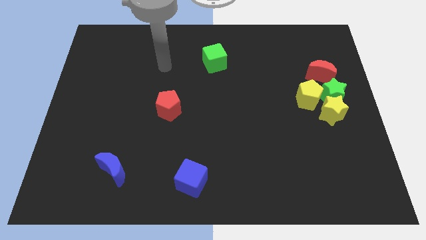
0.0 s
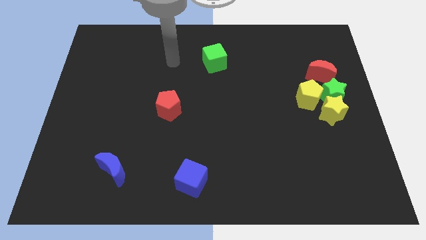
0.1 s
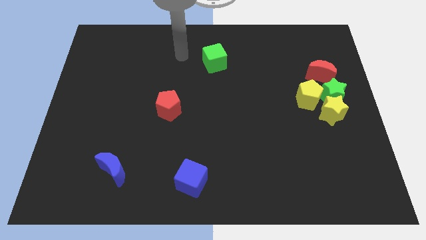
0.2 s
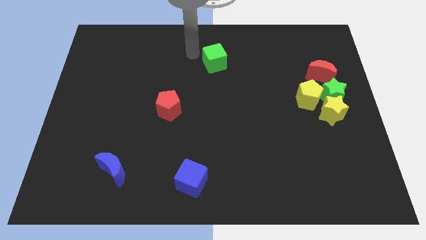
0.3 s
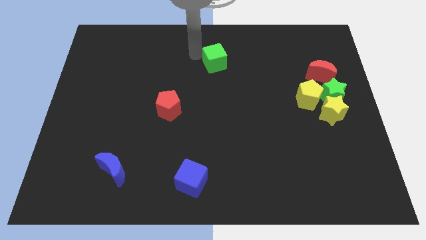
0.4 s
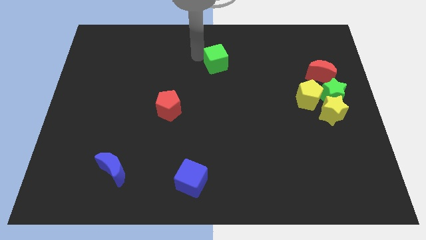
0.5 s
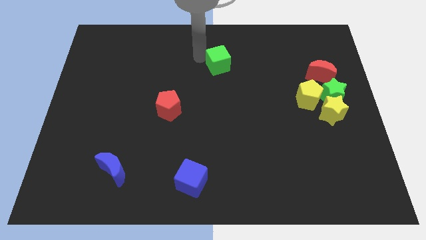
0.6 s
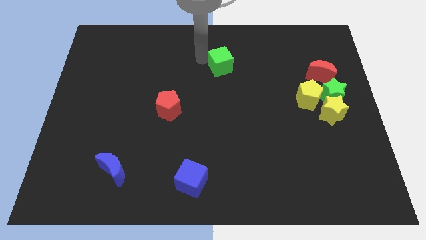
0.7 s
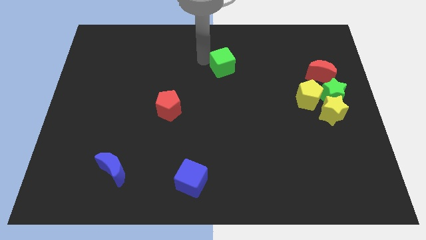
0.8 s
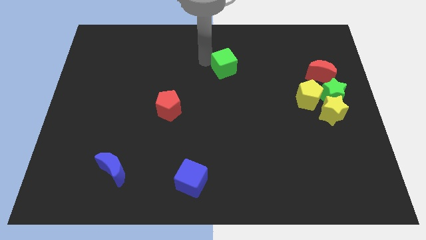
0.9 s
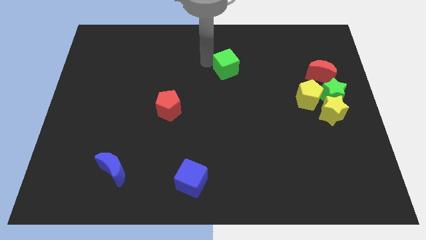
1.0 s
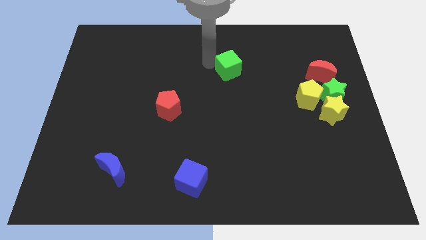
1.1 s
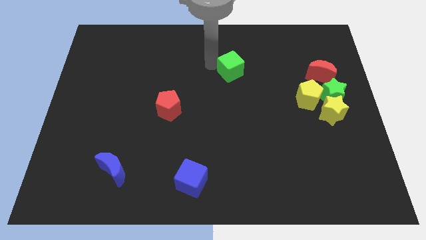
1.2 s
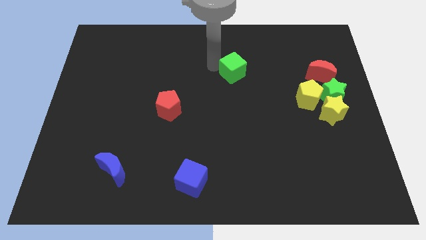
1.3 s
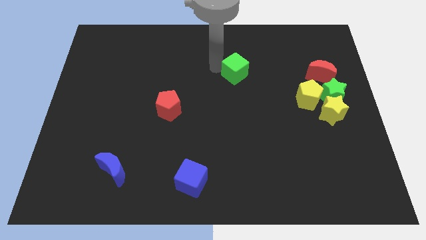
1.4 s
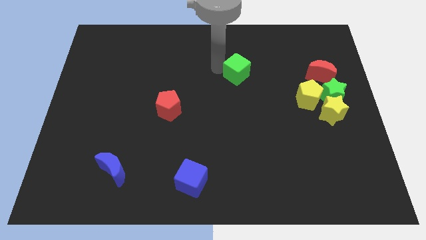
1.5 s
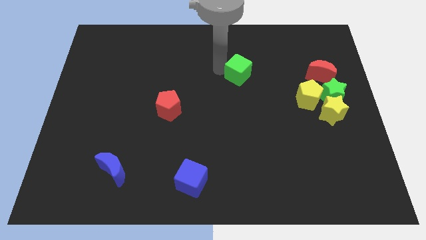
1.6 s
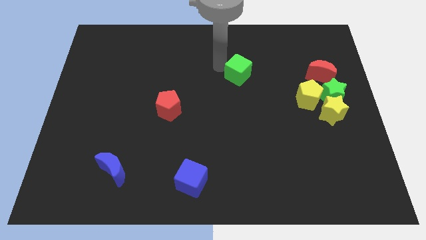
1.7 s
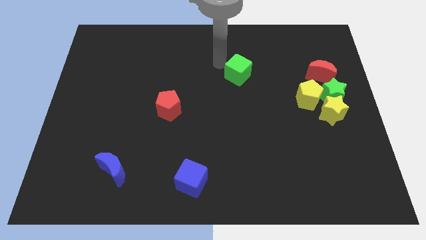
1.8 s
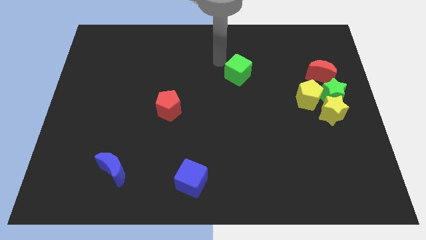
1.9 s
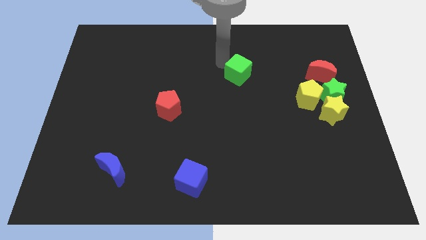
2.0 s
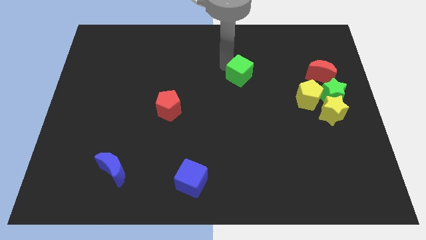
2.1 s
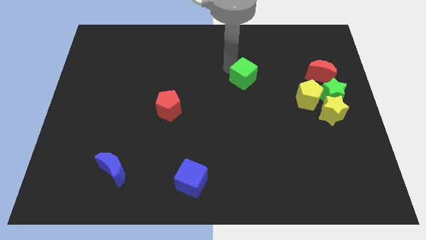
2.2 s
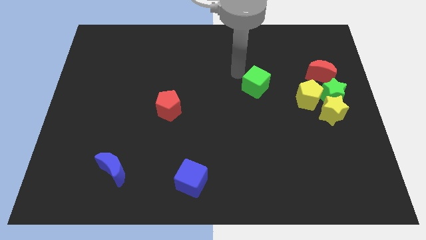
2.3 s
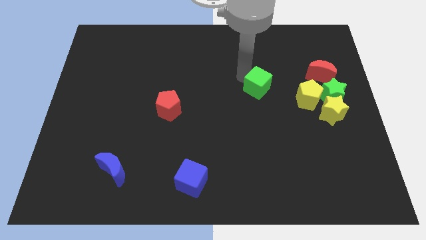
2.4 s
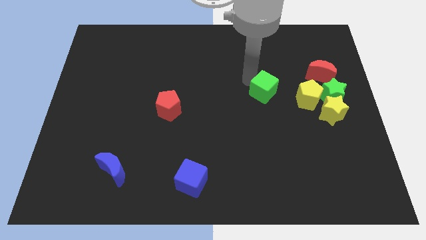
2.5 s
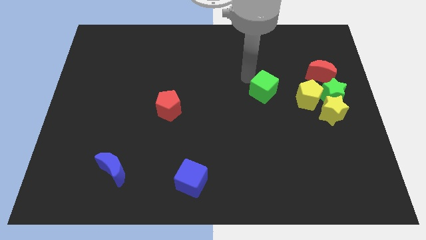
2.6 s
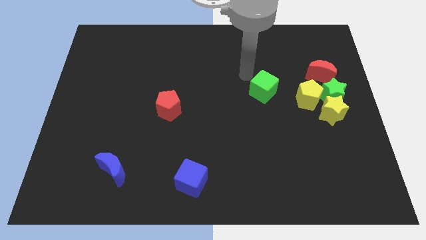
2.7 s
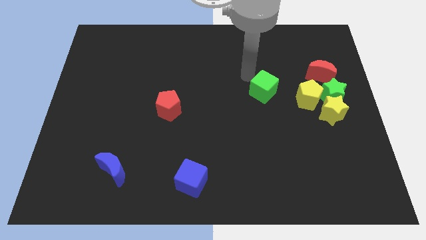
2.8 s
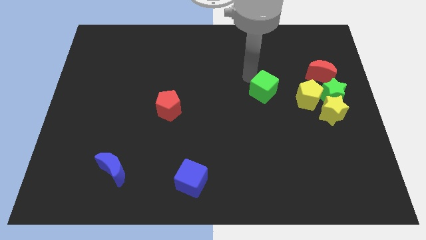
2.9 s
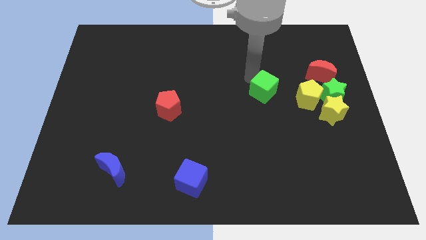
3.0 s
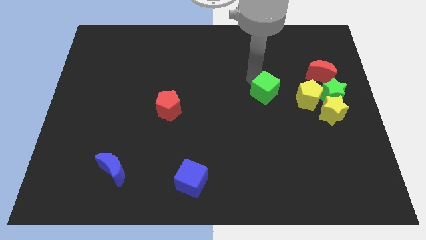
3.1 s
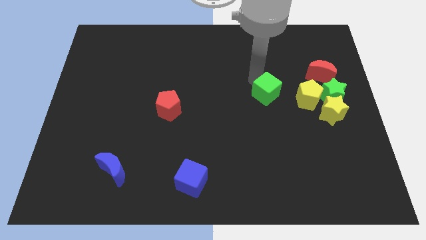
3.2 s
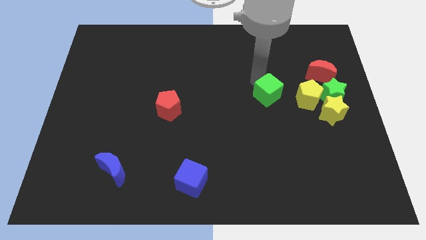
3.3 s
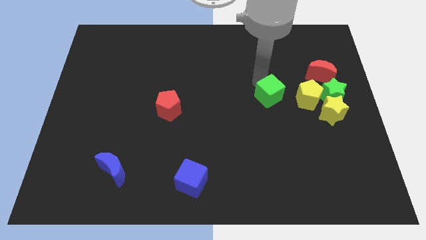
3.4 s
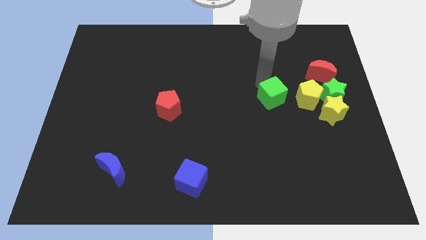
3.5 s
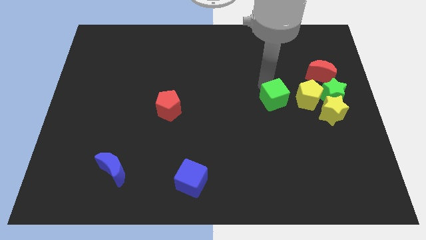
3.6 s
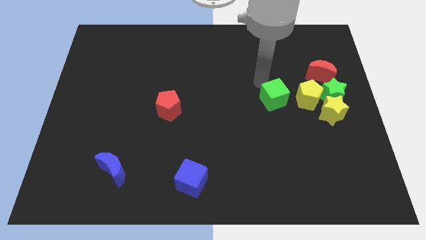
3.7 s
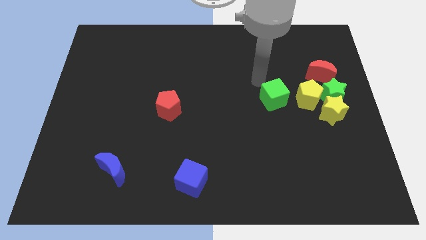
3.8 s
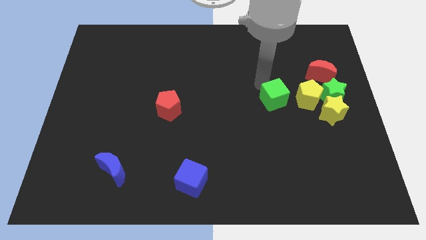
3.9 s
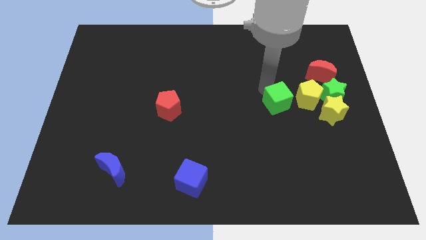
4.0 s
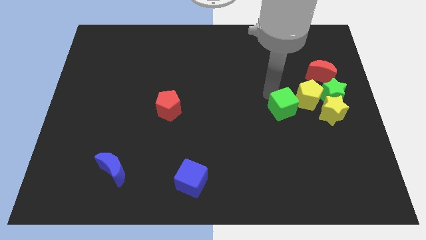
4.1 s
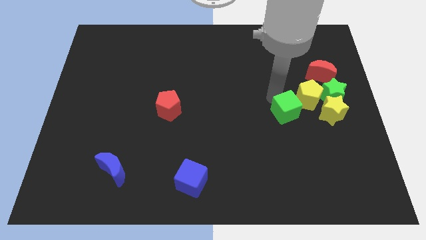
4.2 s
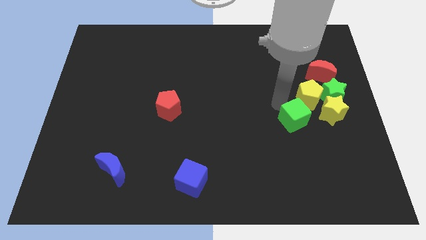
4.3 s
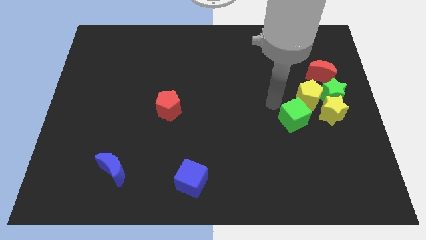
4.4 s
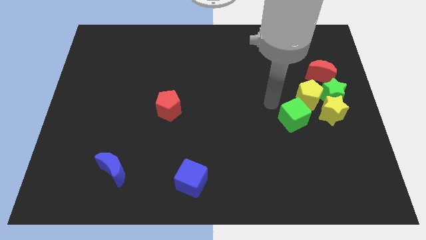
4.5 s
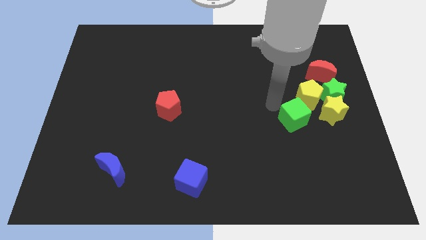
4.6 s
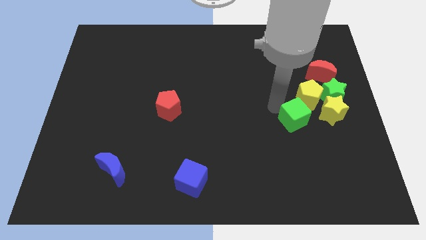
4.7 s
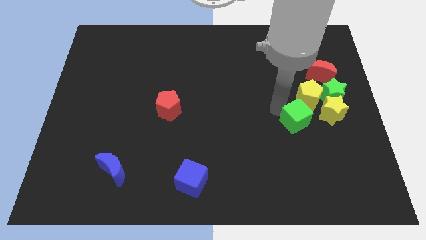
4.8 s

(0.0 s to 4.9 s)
move the green cube to the bottom left side of the yellow star

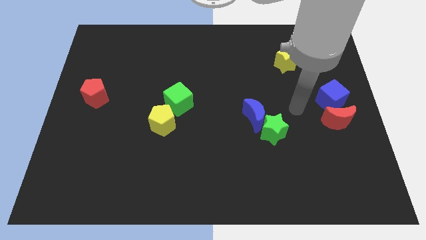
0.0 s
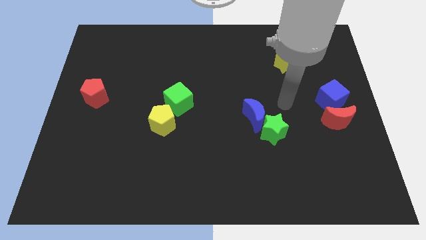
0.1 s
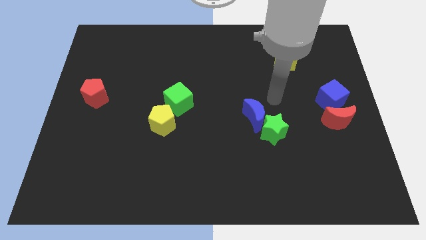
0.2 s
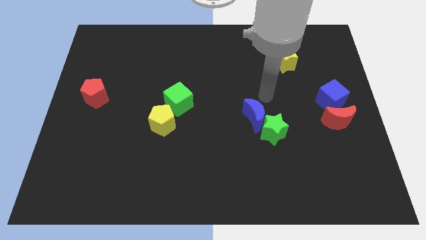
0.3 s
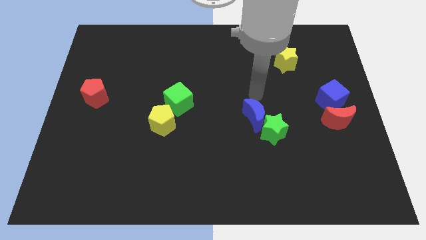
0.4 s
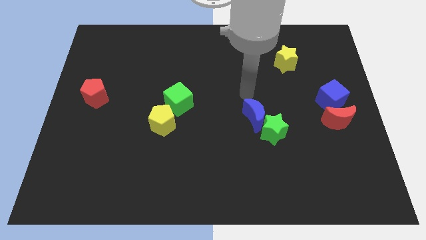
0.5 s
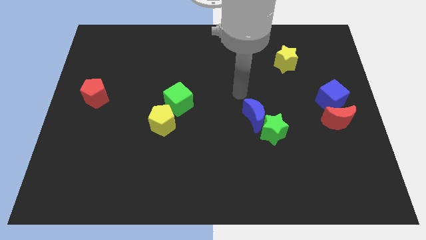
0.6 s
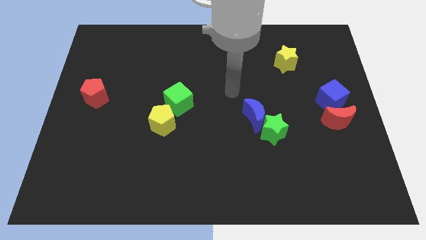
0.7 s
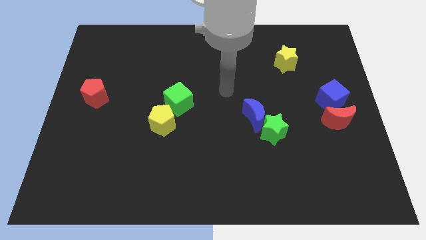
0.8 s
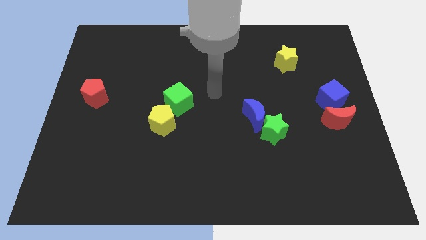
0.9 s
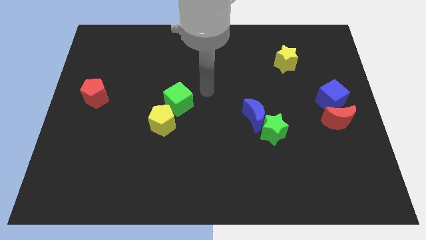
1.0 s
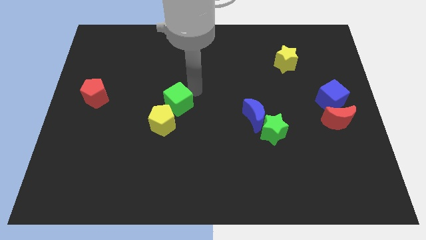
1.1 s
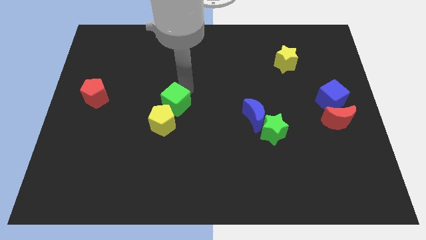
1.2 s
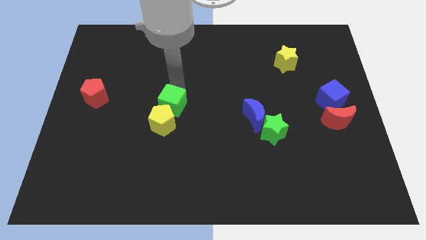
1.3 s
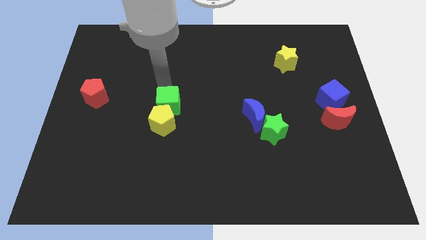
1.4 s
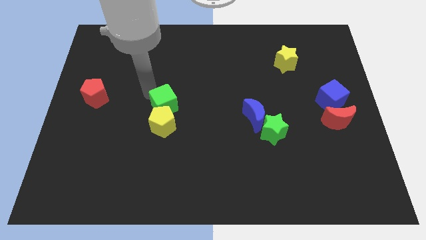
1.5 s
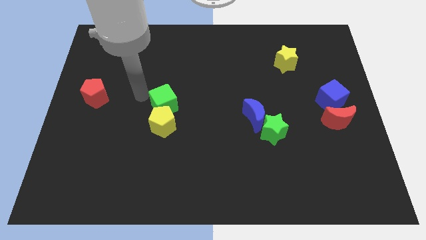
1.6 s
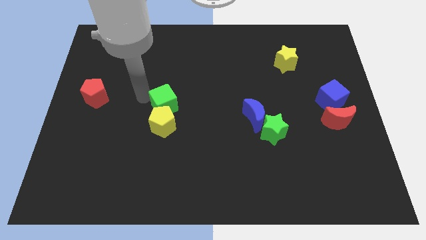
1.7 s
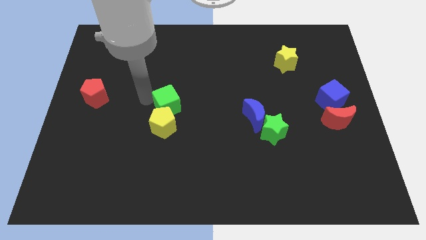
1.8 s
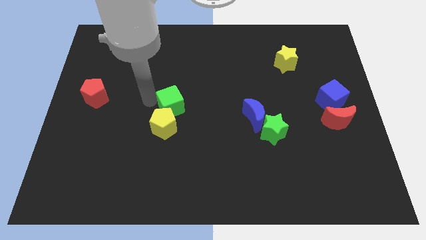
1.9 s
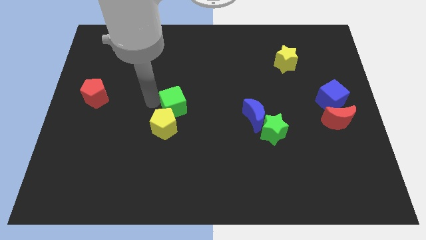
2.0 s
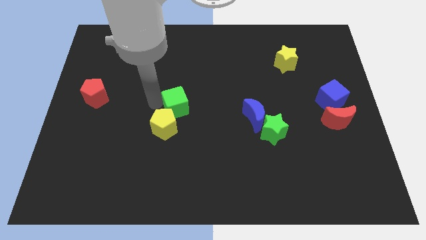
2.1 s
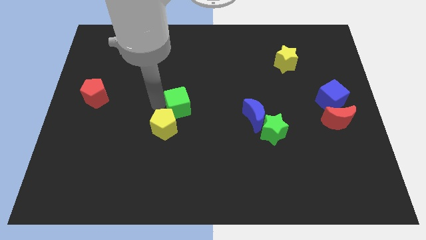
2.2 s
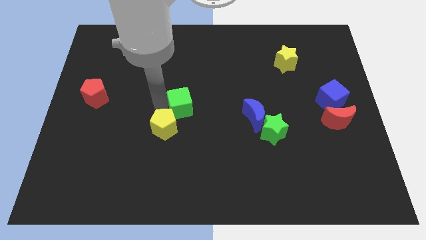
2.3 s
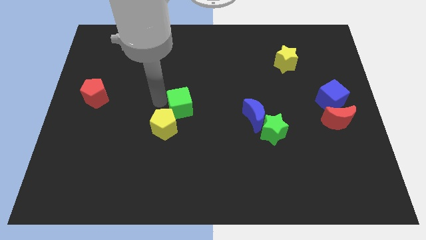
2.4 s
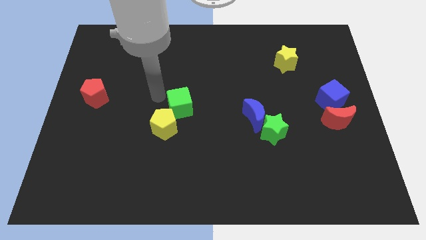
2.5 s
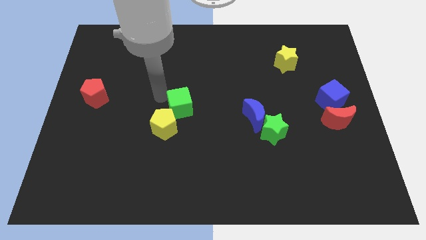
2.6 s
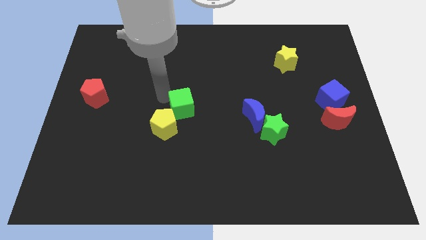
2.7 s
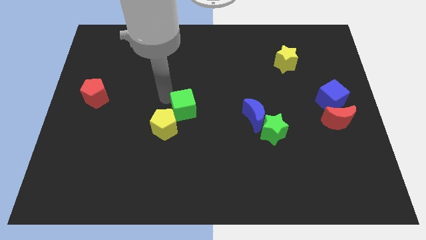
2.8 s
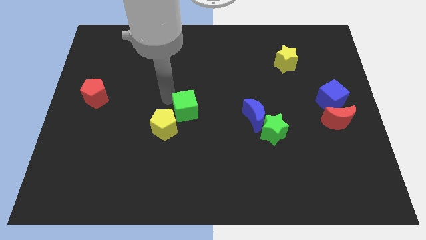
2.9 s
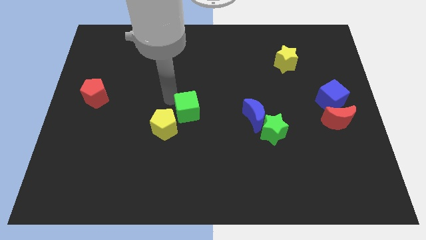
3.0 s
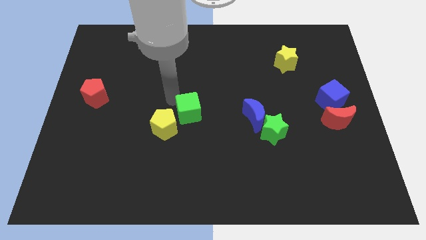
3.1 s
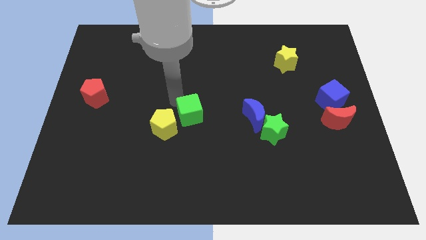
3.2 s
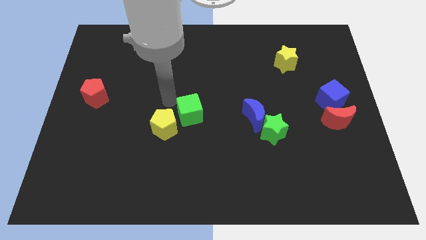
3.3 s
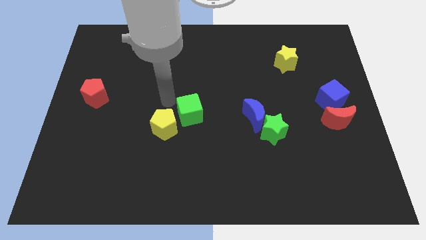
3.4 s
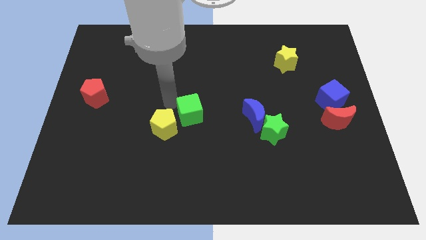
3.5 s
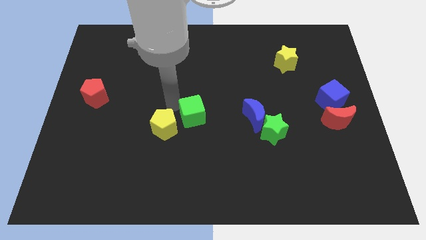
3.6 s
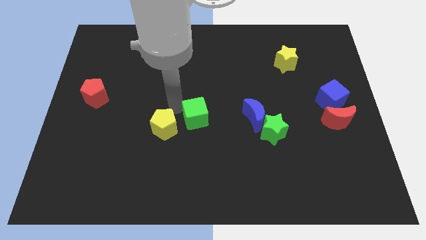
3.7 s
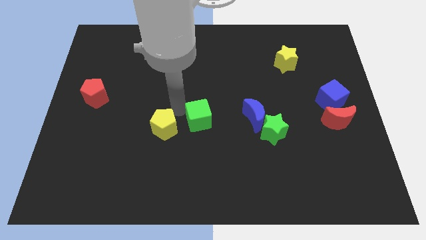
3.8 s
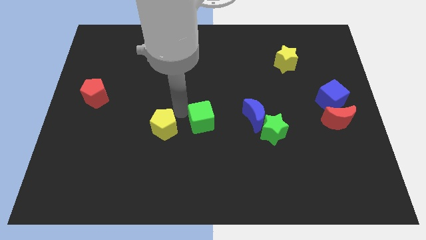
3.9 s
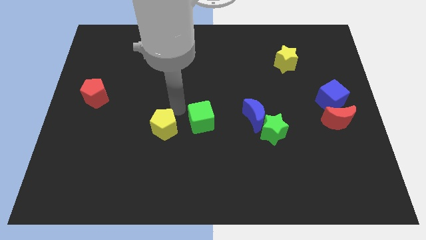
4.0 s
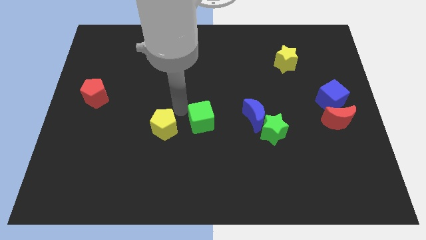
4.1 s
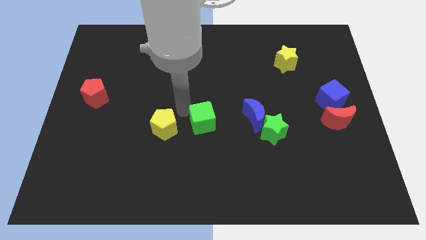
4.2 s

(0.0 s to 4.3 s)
push the green cube just left of the green star
